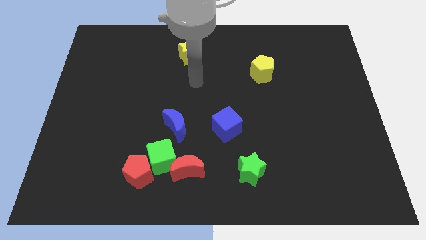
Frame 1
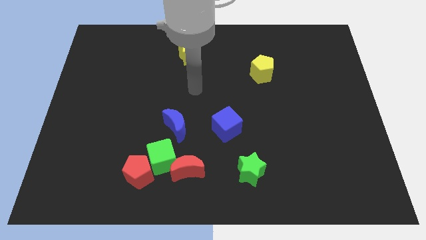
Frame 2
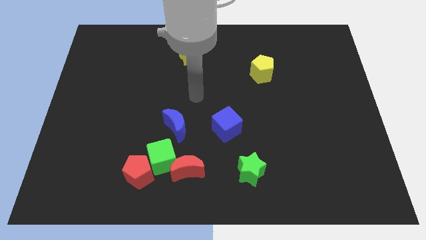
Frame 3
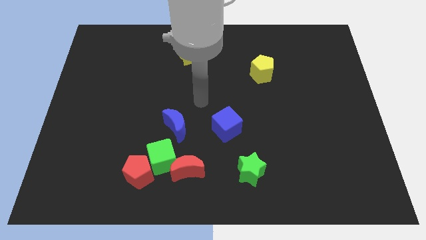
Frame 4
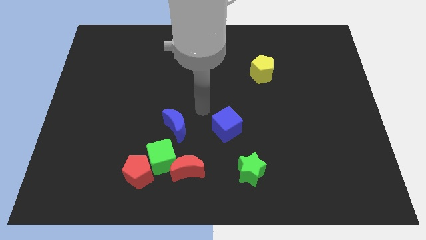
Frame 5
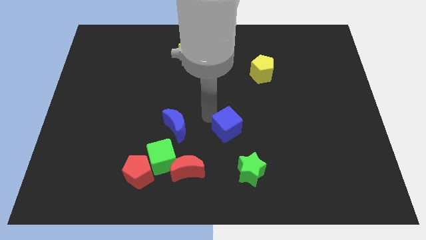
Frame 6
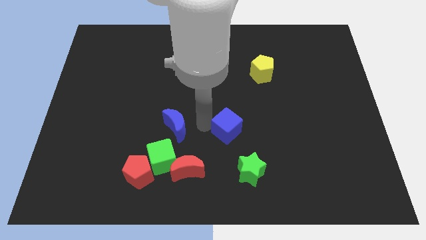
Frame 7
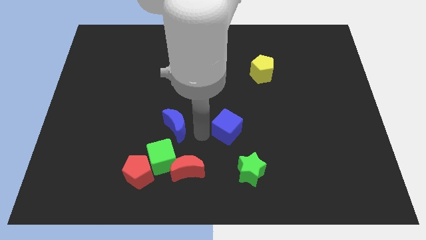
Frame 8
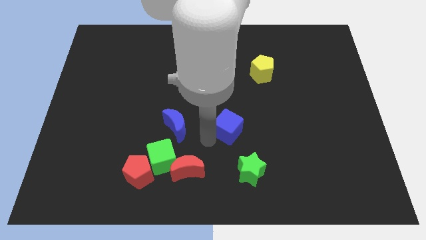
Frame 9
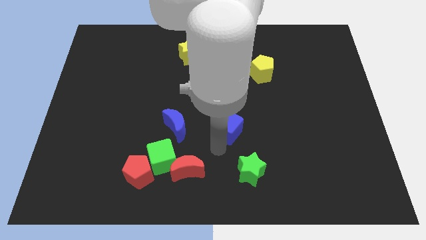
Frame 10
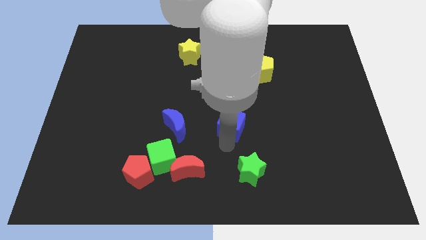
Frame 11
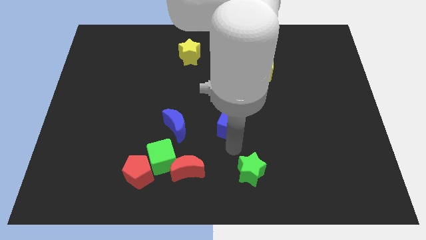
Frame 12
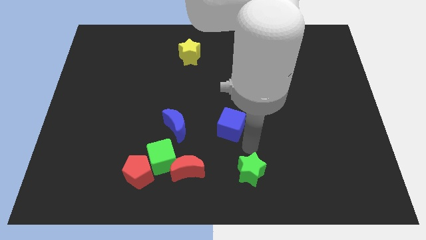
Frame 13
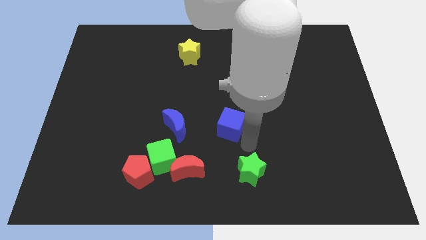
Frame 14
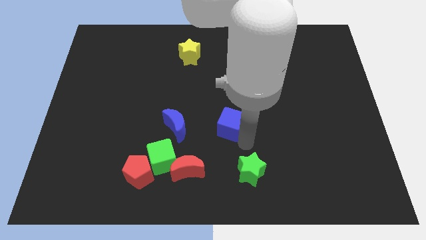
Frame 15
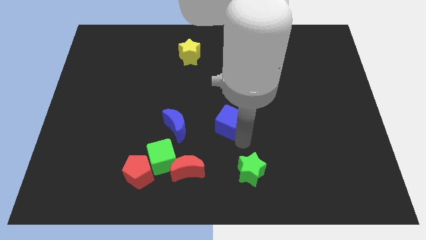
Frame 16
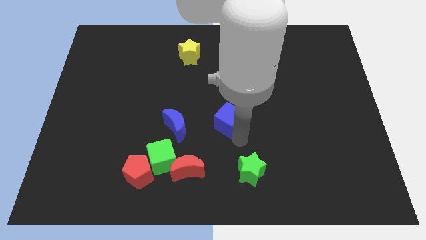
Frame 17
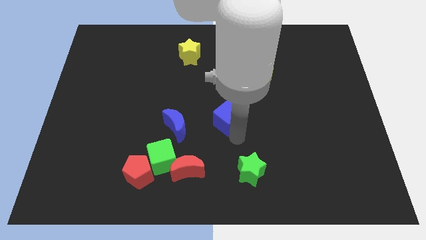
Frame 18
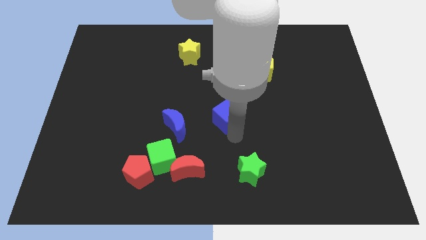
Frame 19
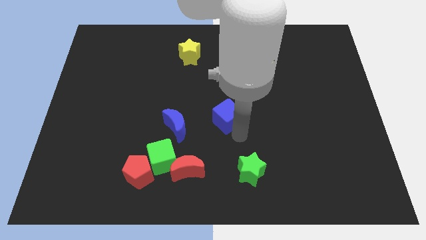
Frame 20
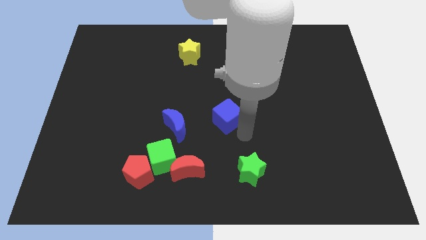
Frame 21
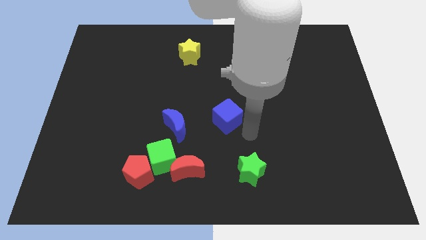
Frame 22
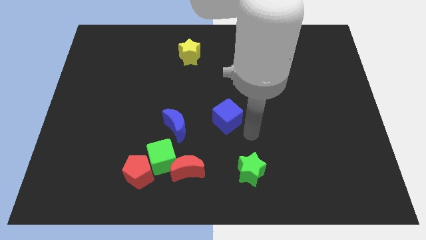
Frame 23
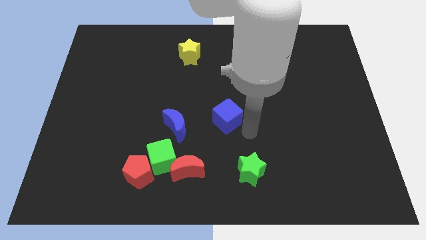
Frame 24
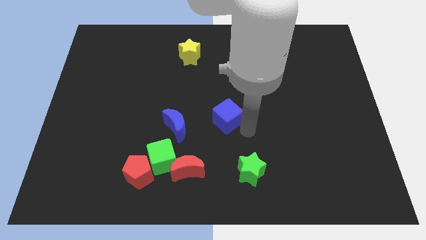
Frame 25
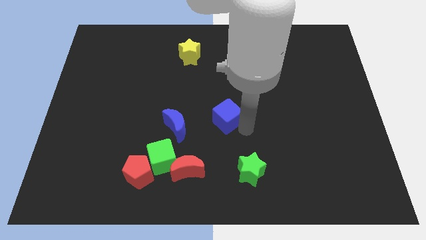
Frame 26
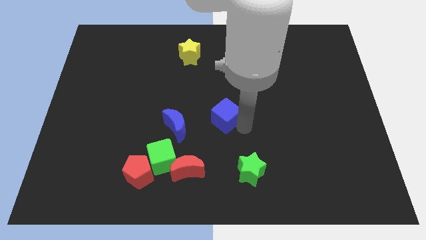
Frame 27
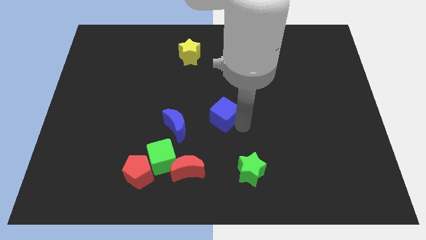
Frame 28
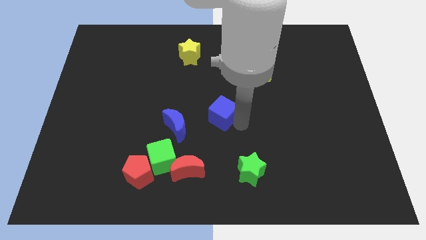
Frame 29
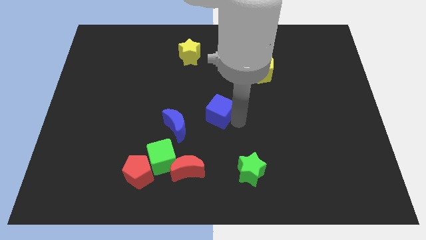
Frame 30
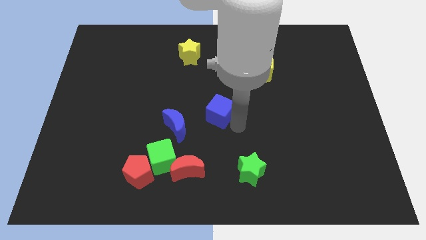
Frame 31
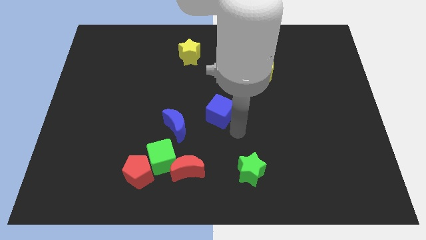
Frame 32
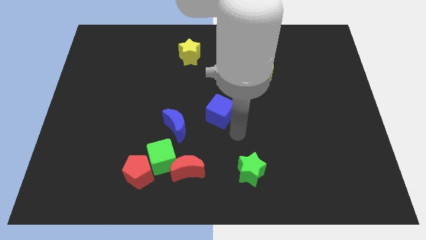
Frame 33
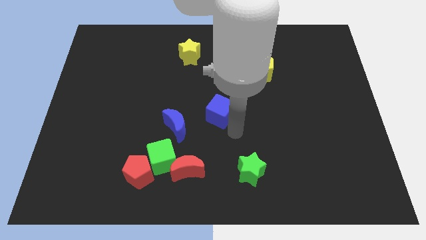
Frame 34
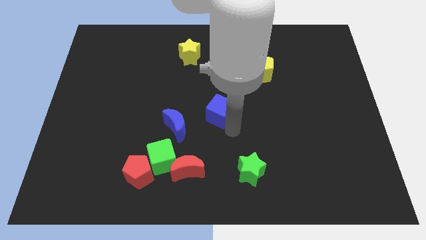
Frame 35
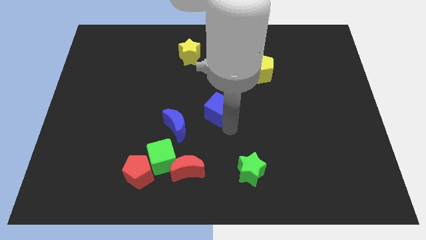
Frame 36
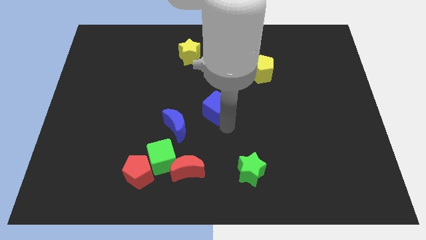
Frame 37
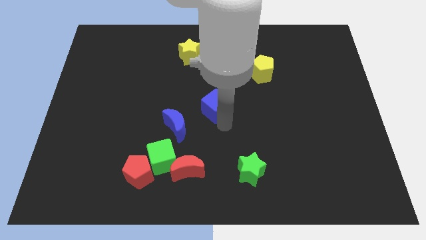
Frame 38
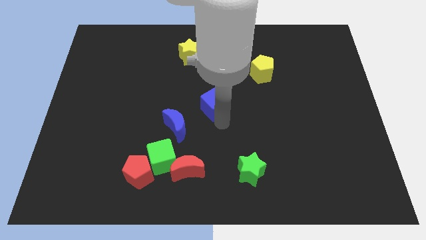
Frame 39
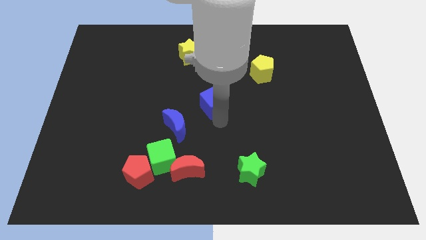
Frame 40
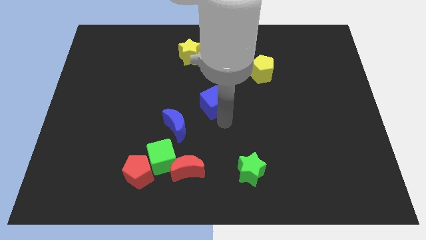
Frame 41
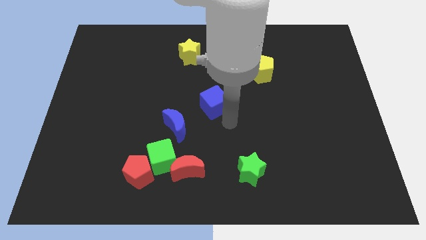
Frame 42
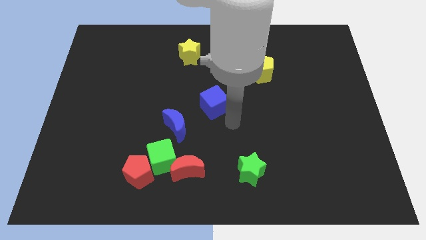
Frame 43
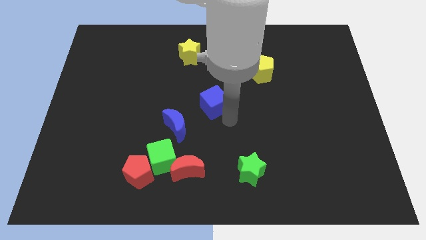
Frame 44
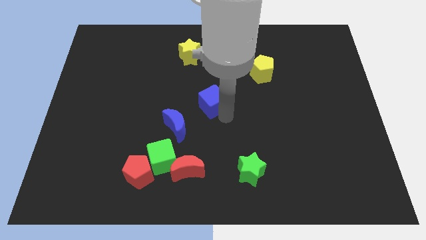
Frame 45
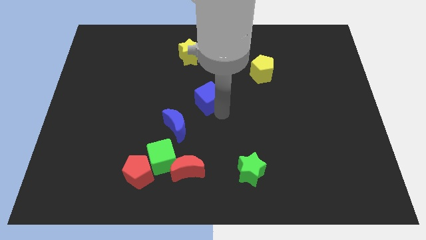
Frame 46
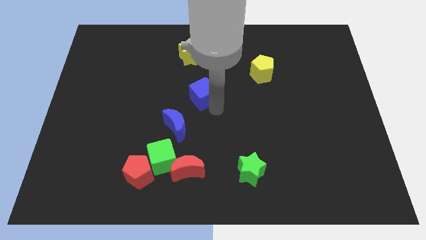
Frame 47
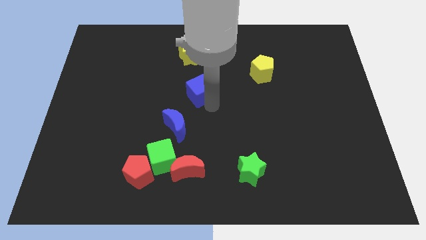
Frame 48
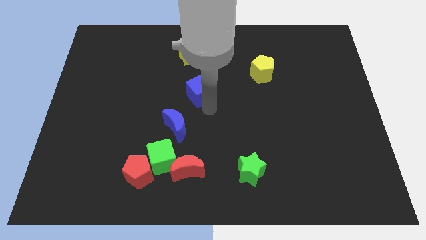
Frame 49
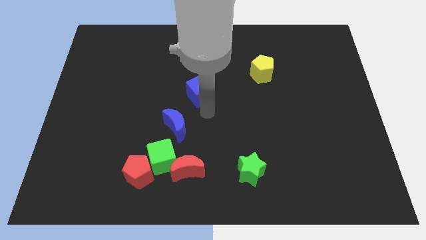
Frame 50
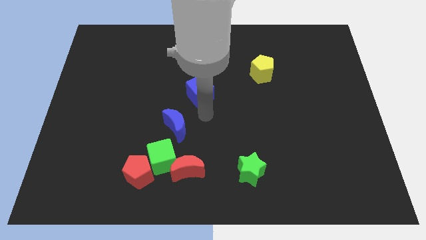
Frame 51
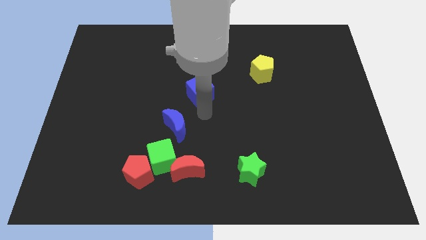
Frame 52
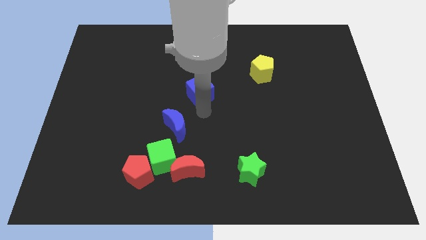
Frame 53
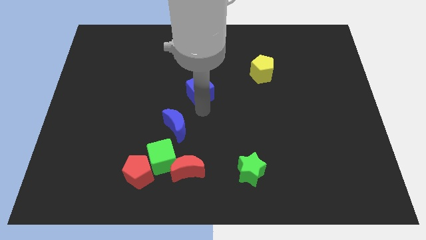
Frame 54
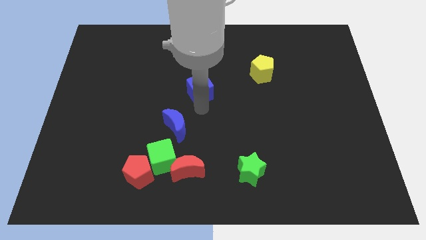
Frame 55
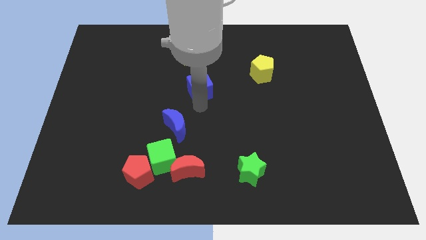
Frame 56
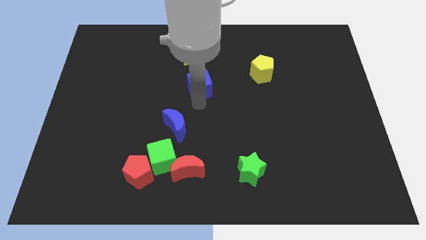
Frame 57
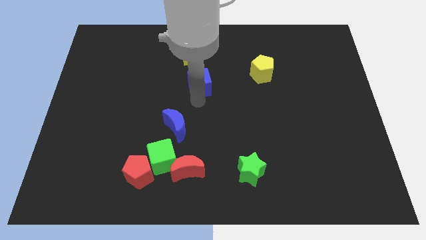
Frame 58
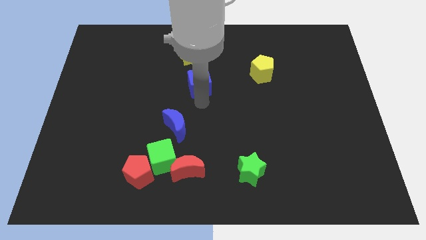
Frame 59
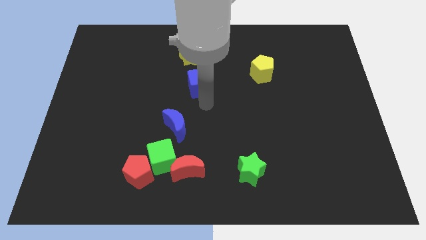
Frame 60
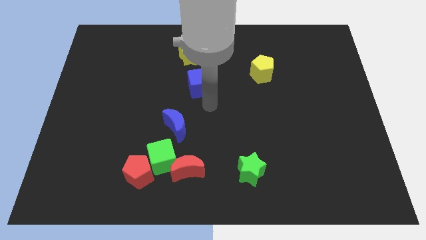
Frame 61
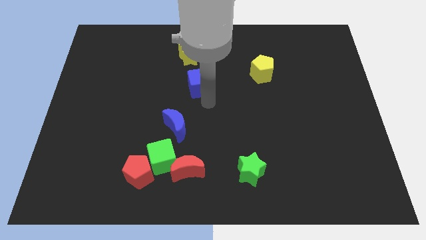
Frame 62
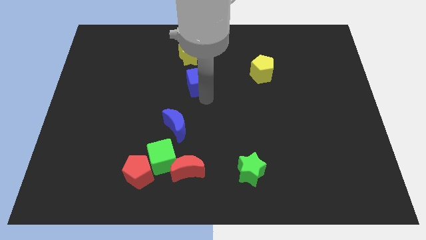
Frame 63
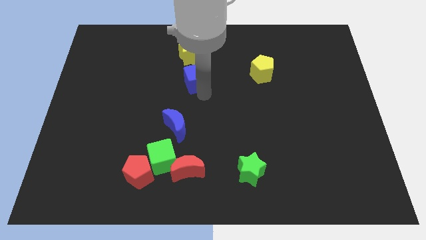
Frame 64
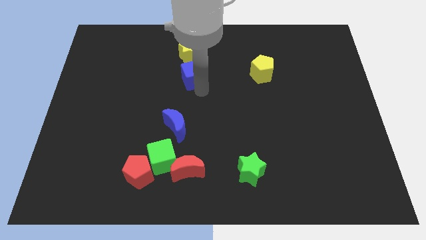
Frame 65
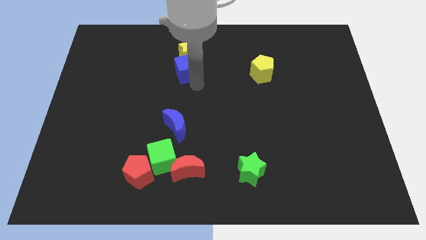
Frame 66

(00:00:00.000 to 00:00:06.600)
move the blue cube close to the yellow star
